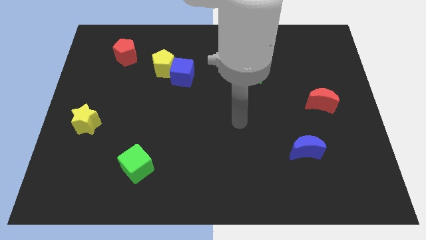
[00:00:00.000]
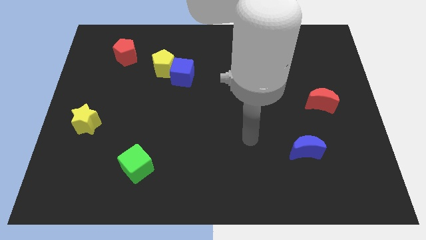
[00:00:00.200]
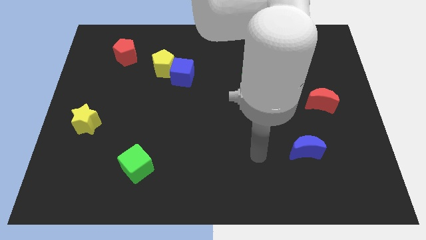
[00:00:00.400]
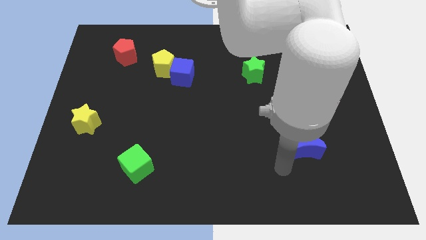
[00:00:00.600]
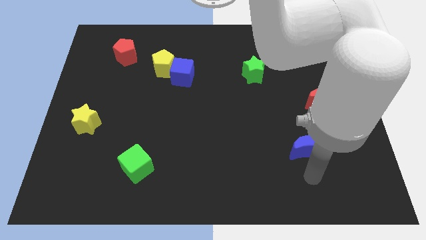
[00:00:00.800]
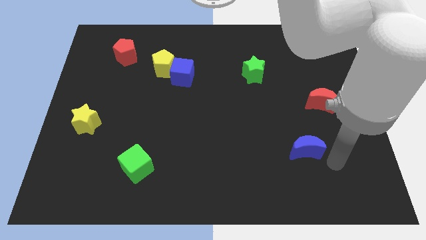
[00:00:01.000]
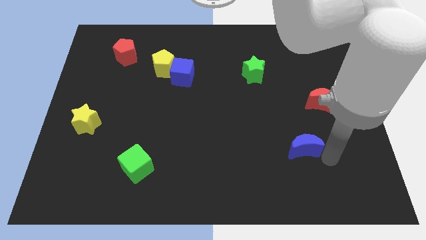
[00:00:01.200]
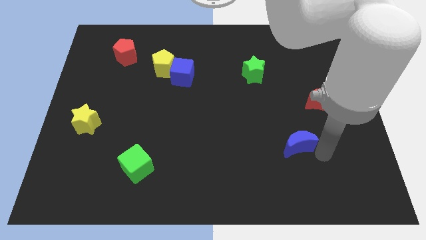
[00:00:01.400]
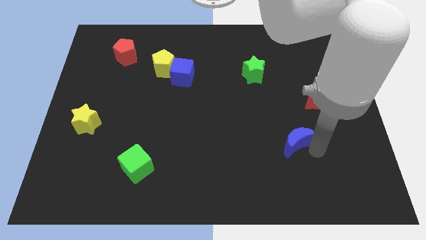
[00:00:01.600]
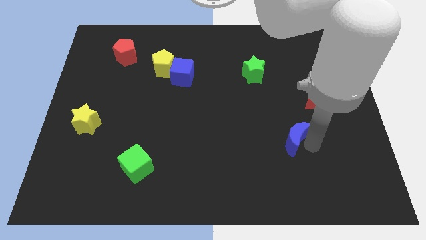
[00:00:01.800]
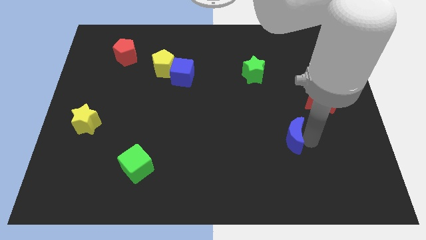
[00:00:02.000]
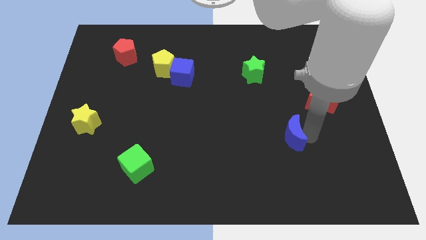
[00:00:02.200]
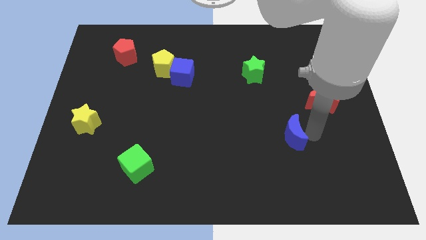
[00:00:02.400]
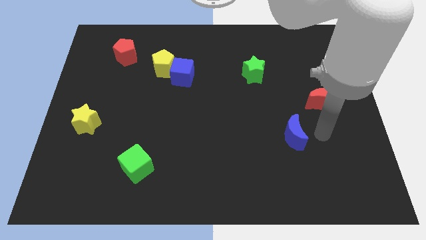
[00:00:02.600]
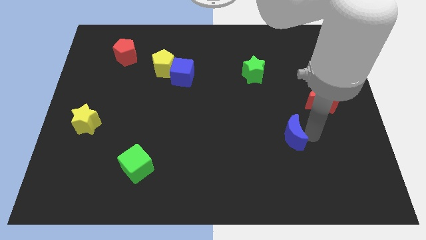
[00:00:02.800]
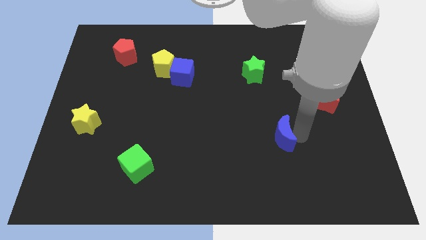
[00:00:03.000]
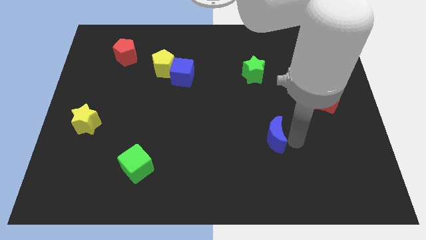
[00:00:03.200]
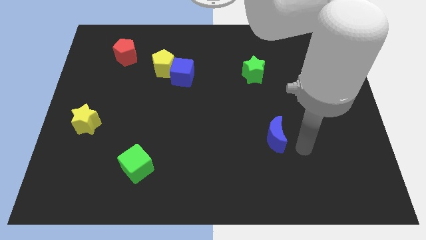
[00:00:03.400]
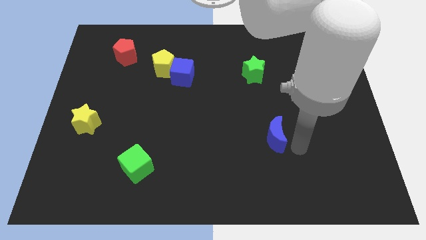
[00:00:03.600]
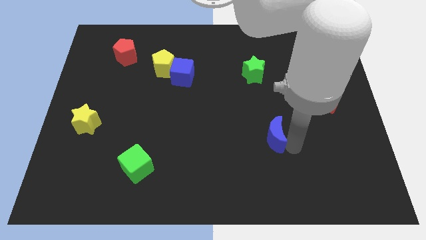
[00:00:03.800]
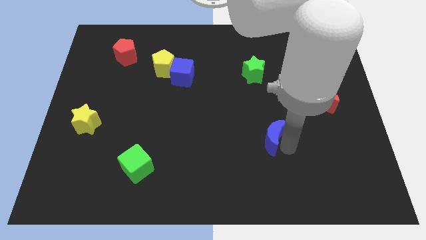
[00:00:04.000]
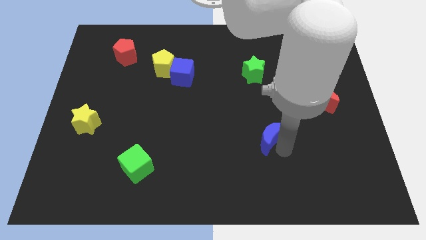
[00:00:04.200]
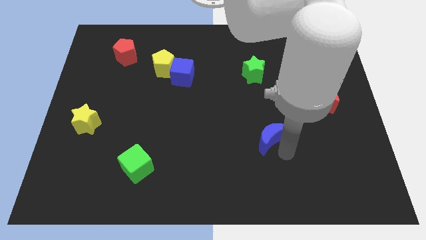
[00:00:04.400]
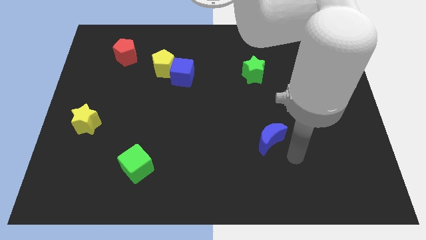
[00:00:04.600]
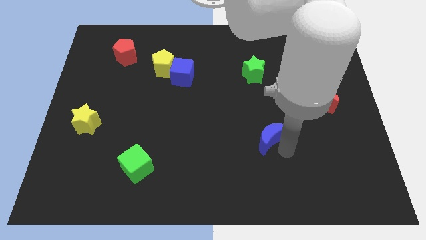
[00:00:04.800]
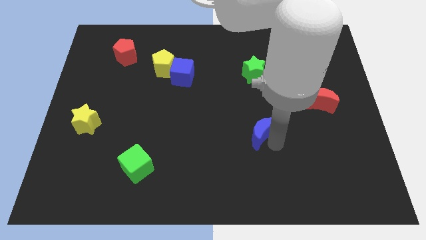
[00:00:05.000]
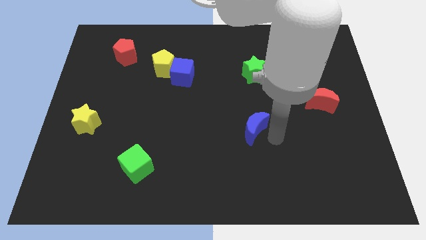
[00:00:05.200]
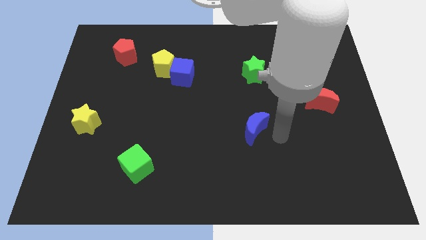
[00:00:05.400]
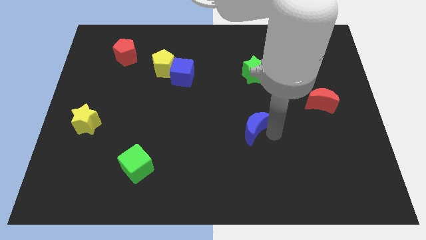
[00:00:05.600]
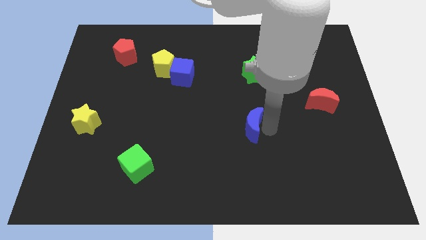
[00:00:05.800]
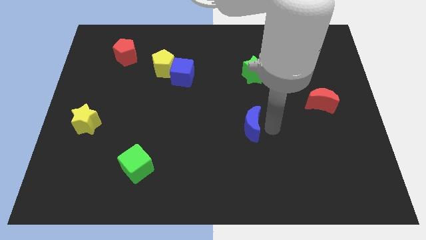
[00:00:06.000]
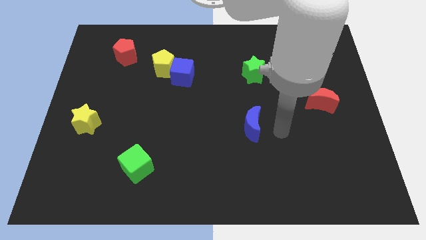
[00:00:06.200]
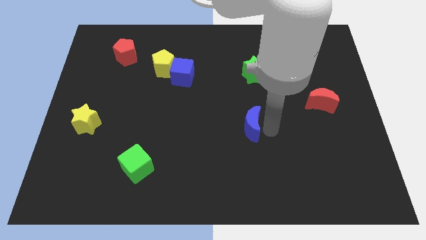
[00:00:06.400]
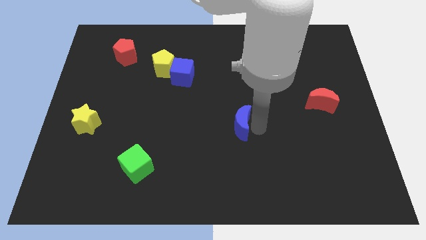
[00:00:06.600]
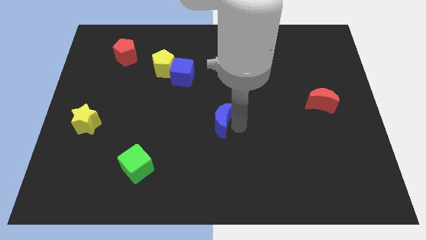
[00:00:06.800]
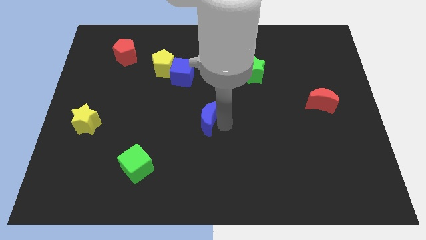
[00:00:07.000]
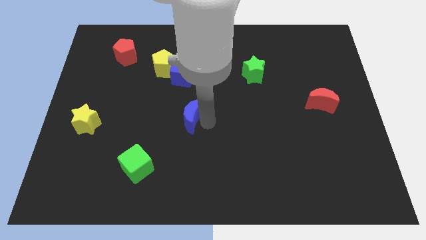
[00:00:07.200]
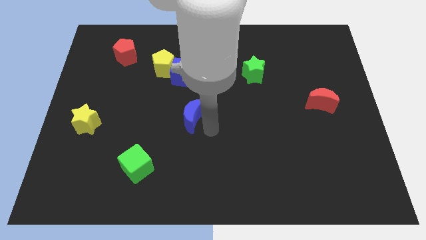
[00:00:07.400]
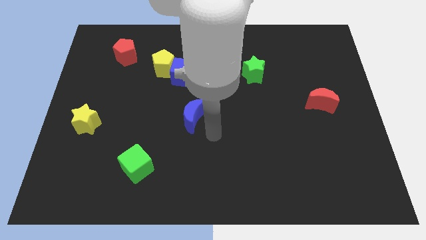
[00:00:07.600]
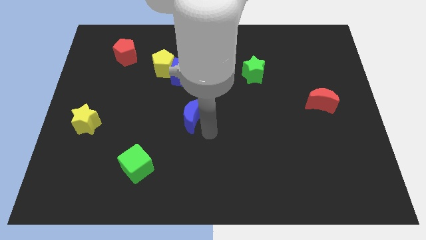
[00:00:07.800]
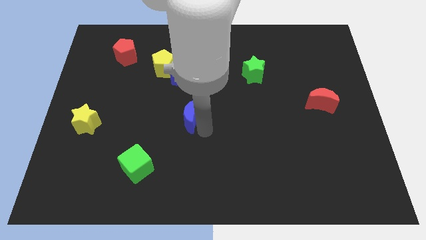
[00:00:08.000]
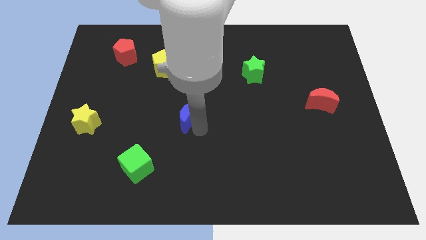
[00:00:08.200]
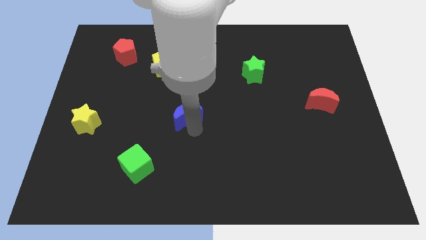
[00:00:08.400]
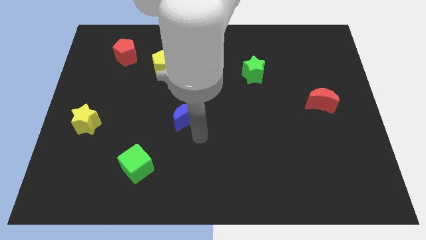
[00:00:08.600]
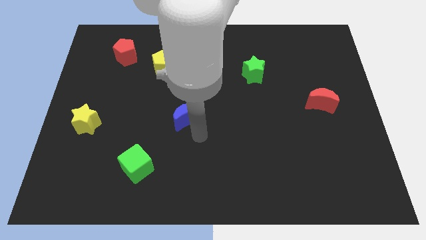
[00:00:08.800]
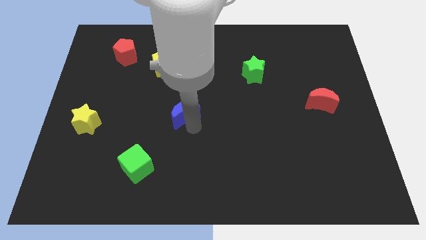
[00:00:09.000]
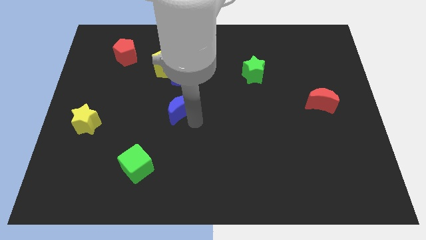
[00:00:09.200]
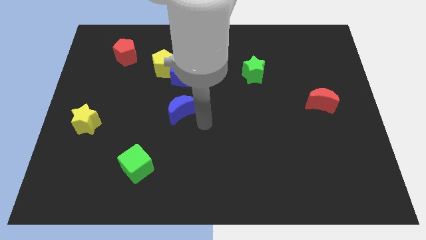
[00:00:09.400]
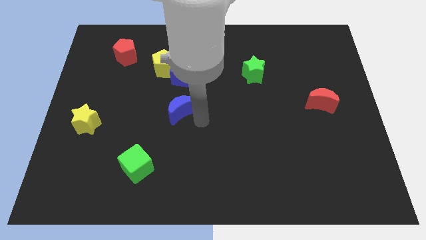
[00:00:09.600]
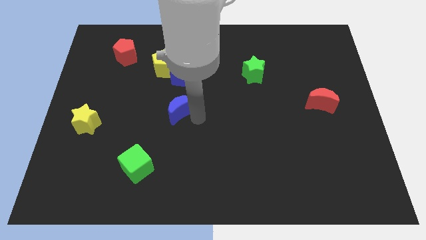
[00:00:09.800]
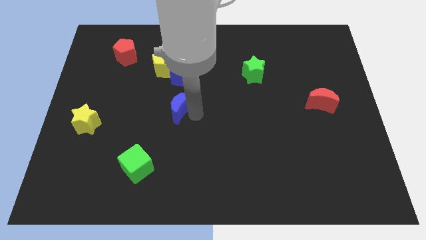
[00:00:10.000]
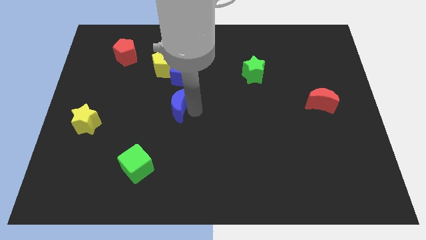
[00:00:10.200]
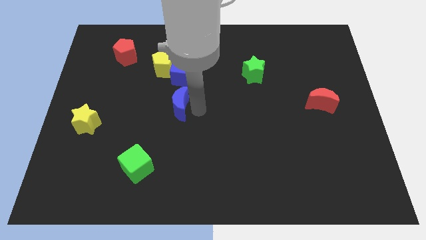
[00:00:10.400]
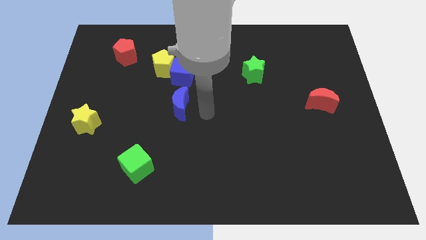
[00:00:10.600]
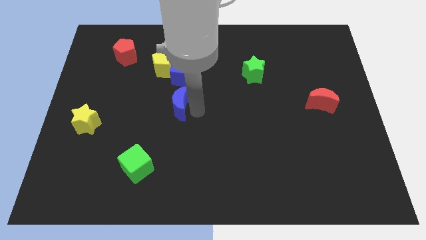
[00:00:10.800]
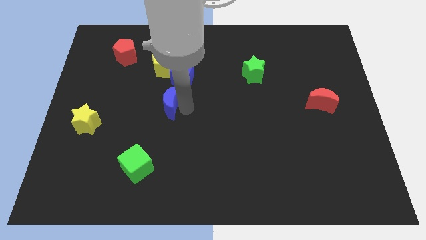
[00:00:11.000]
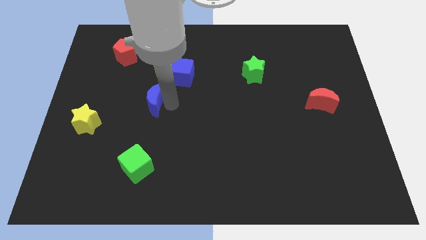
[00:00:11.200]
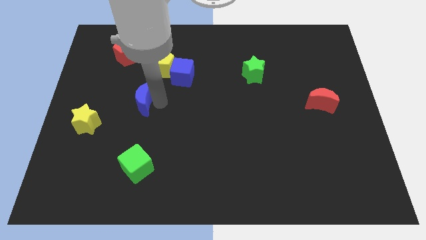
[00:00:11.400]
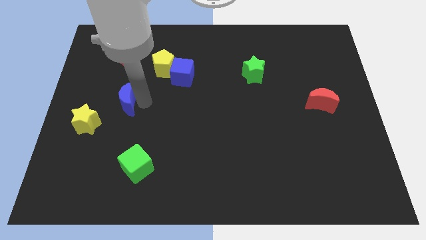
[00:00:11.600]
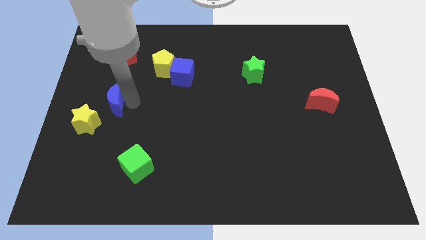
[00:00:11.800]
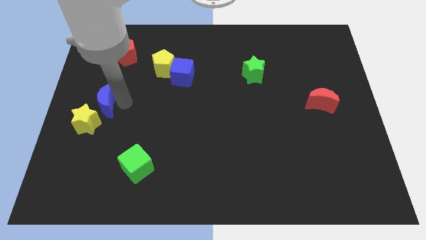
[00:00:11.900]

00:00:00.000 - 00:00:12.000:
slide the blue moon to the center left

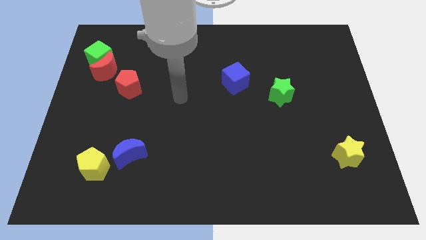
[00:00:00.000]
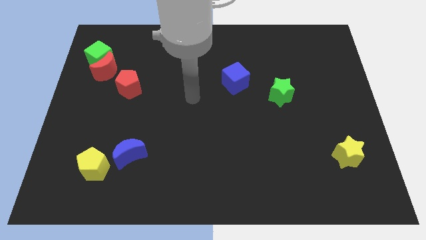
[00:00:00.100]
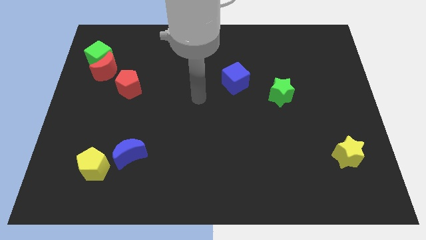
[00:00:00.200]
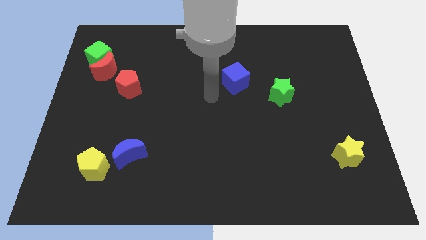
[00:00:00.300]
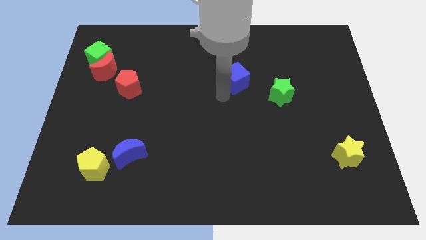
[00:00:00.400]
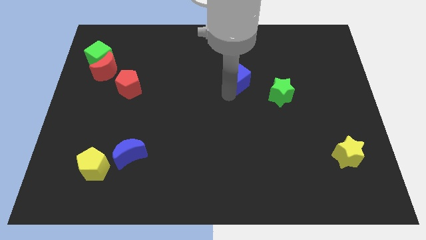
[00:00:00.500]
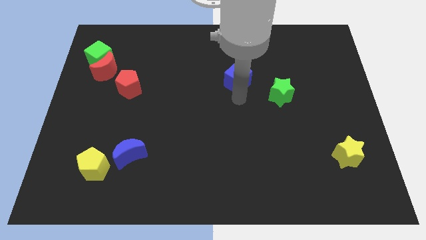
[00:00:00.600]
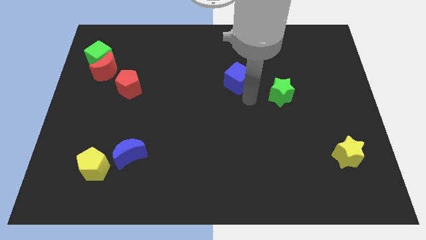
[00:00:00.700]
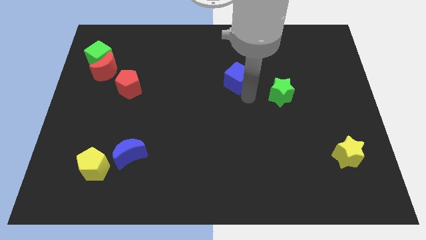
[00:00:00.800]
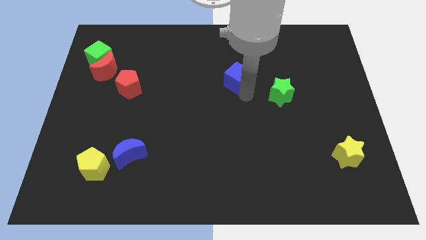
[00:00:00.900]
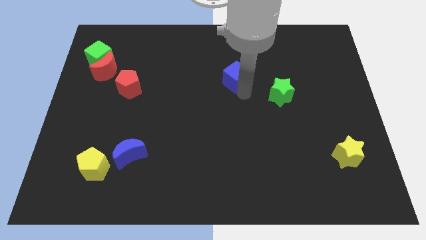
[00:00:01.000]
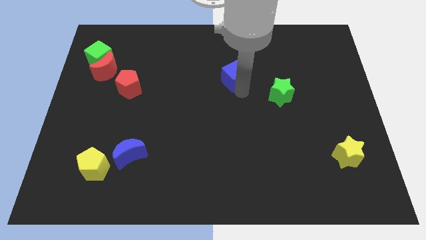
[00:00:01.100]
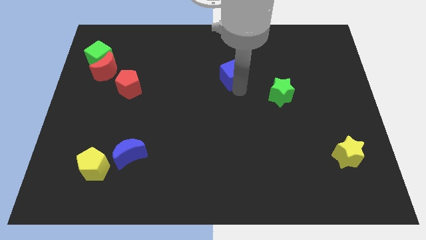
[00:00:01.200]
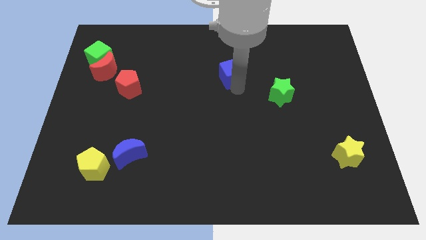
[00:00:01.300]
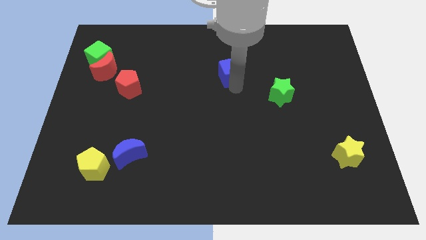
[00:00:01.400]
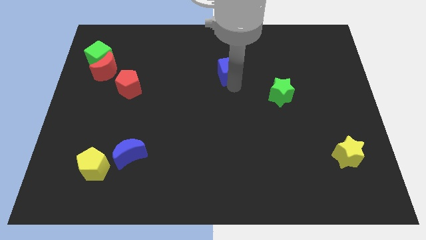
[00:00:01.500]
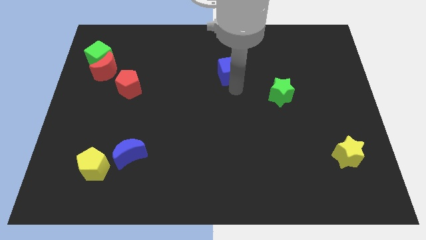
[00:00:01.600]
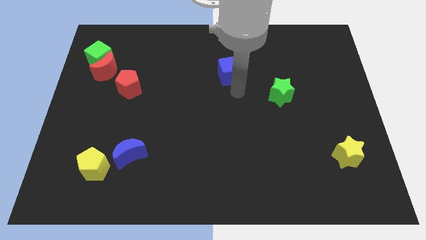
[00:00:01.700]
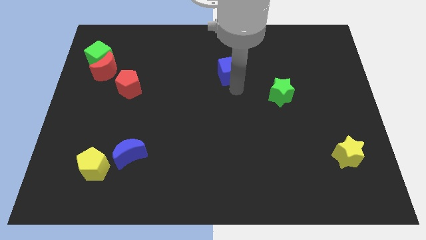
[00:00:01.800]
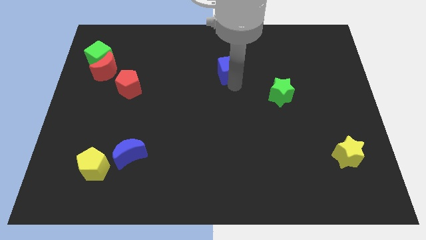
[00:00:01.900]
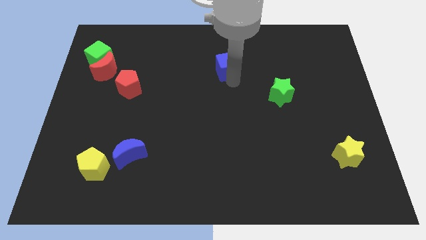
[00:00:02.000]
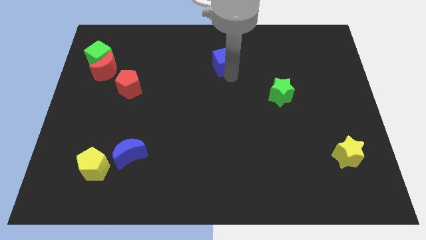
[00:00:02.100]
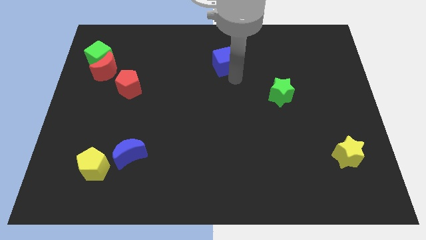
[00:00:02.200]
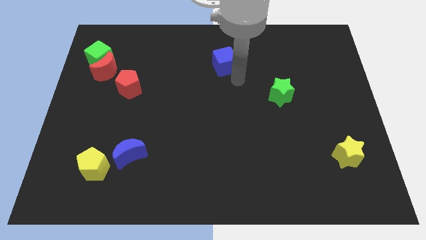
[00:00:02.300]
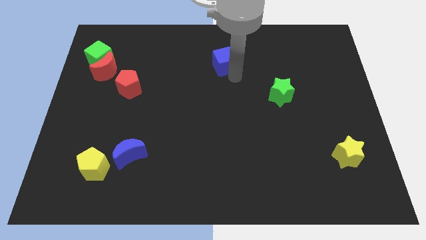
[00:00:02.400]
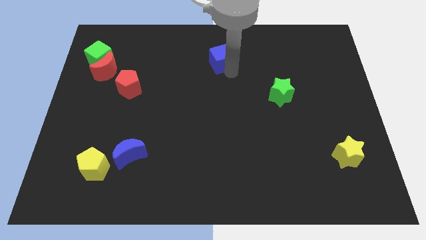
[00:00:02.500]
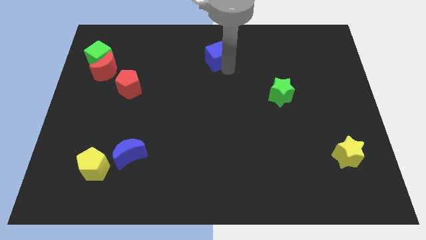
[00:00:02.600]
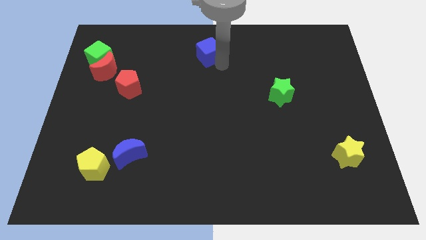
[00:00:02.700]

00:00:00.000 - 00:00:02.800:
slide the blue cube to the top
